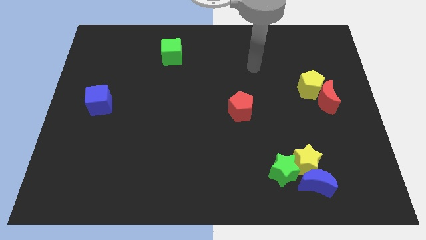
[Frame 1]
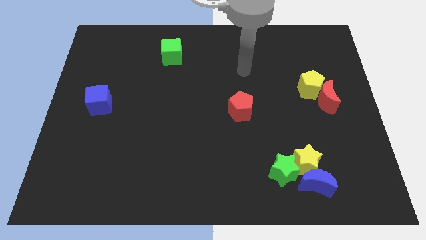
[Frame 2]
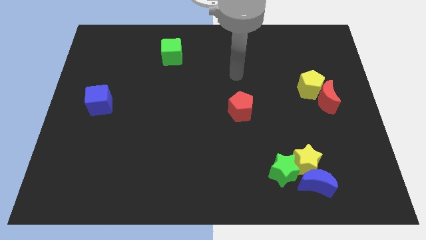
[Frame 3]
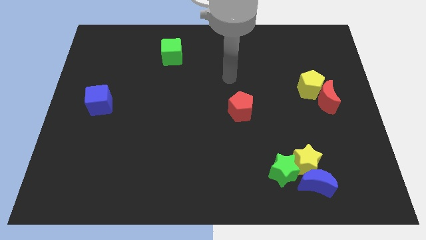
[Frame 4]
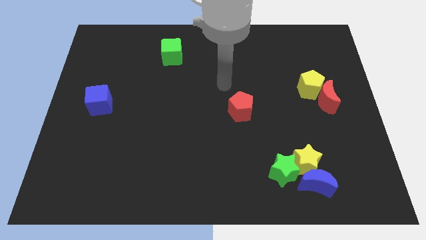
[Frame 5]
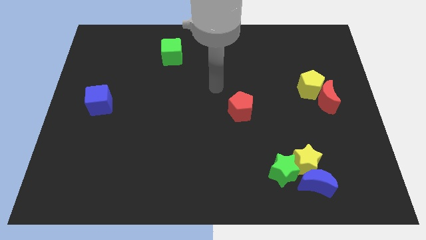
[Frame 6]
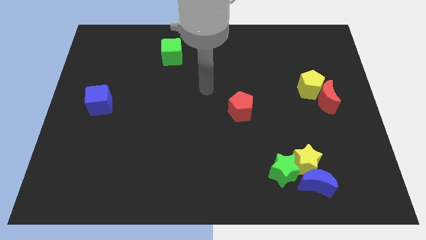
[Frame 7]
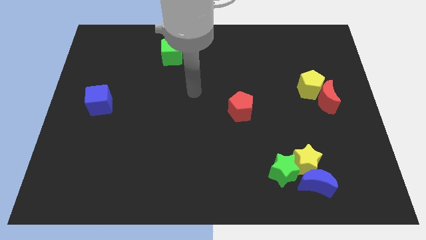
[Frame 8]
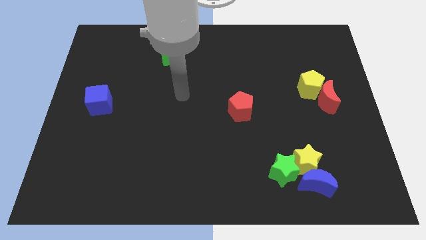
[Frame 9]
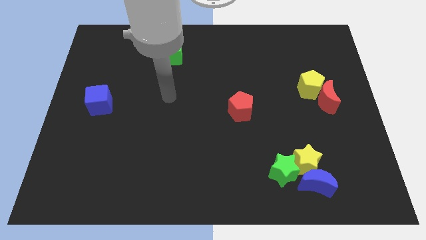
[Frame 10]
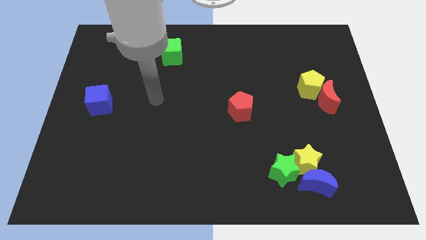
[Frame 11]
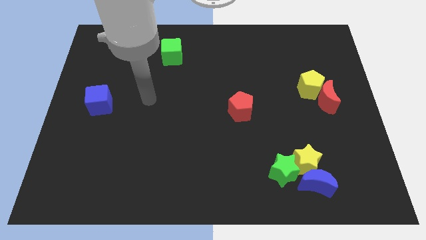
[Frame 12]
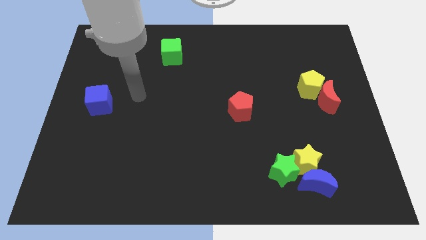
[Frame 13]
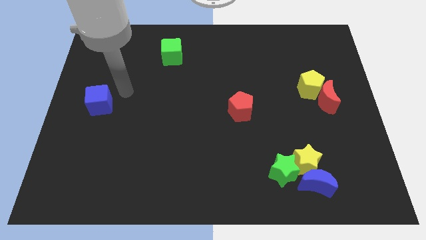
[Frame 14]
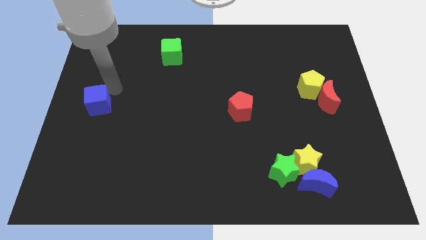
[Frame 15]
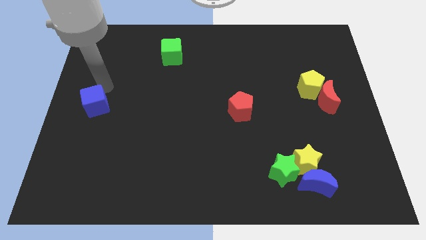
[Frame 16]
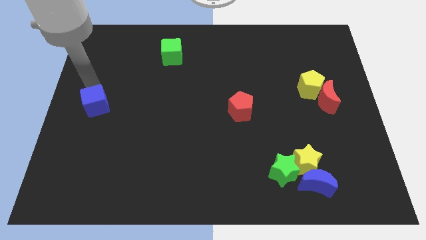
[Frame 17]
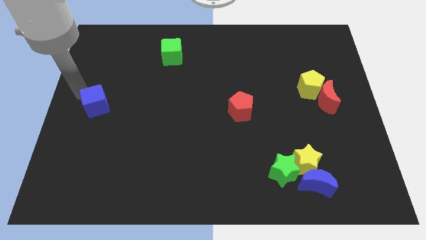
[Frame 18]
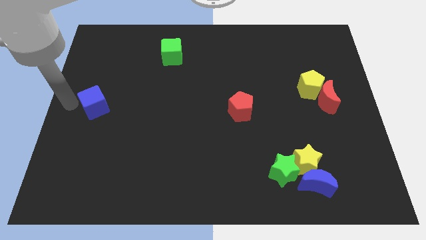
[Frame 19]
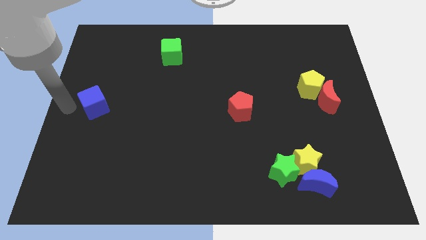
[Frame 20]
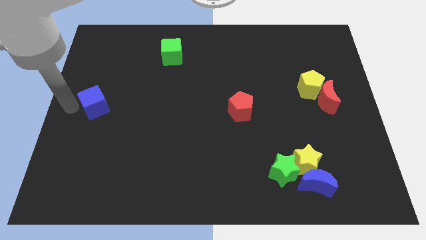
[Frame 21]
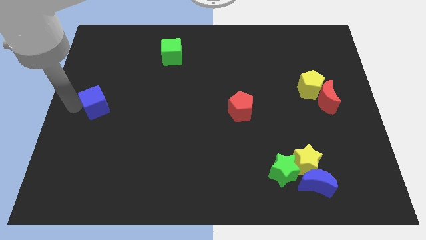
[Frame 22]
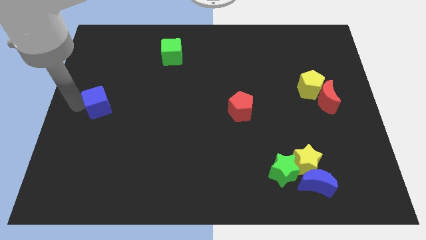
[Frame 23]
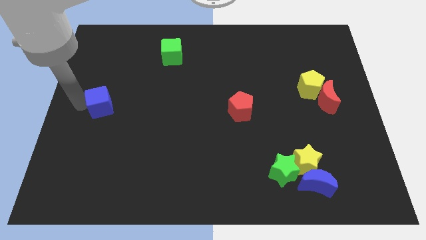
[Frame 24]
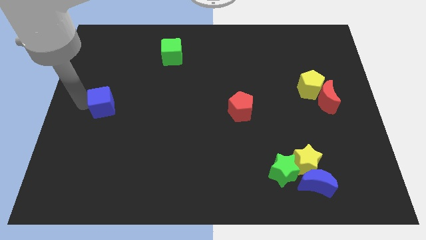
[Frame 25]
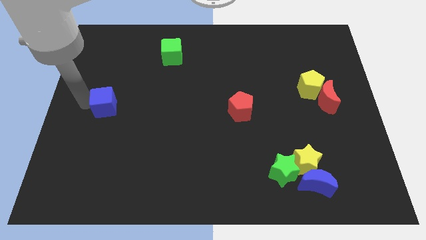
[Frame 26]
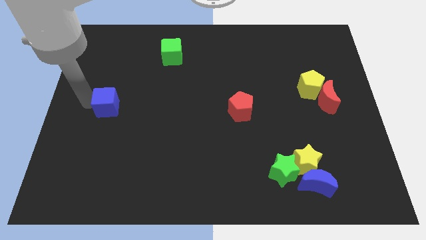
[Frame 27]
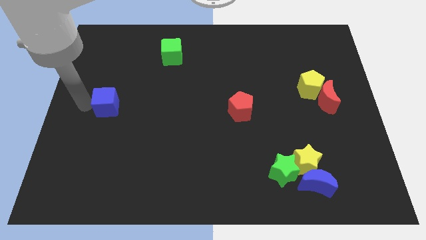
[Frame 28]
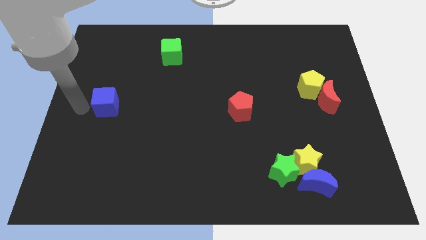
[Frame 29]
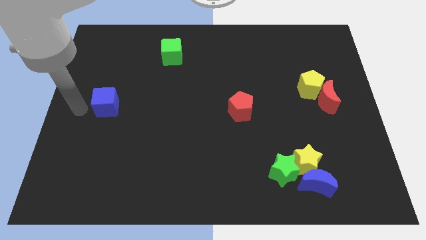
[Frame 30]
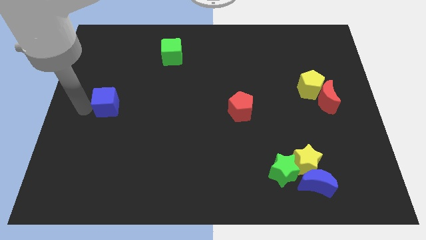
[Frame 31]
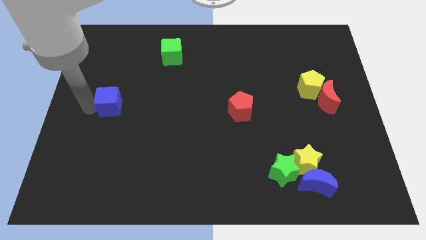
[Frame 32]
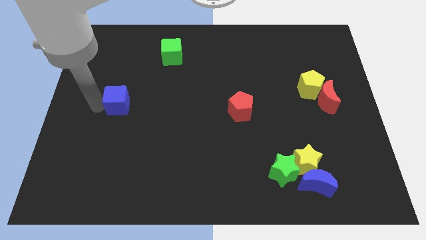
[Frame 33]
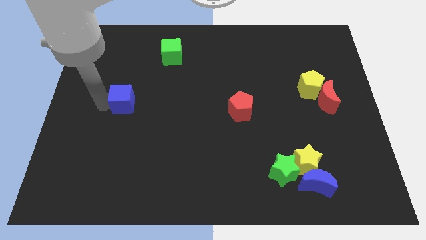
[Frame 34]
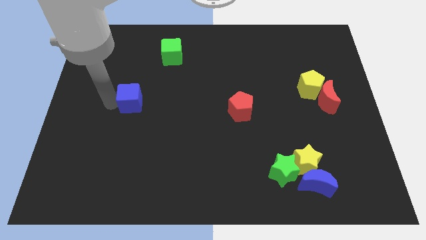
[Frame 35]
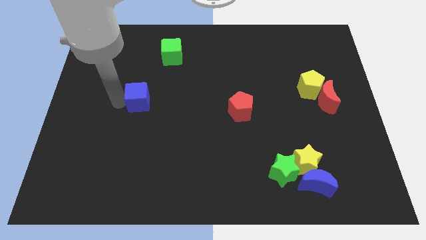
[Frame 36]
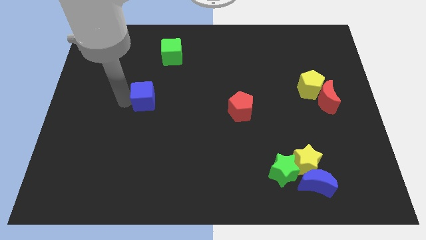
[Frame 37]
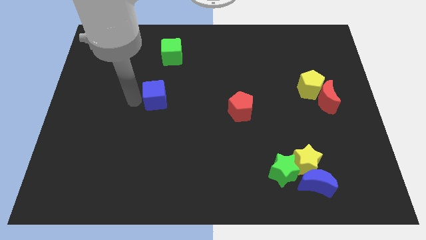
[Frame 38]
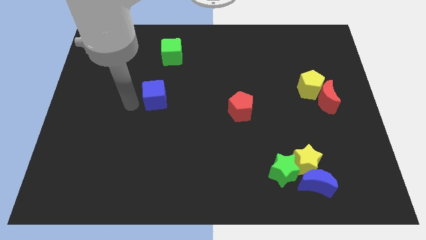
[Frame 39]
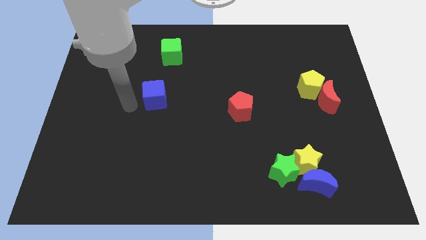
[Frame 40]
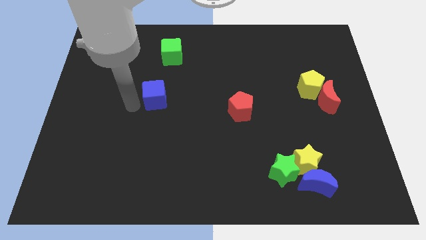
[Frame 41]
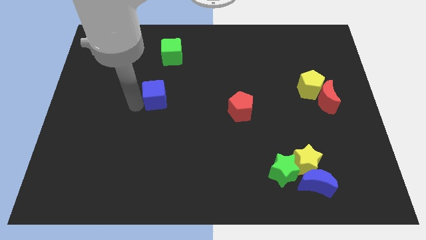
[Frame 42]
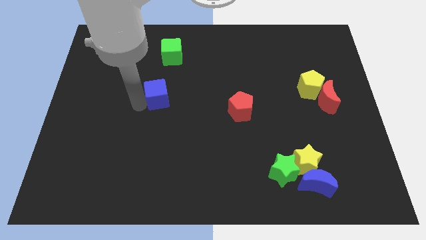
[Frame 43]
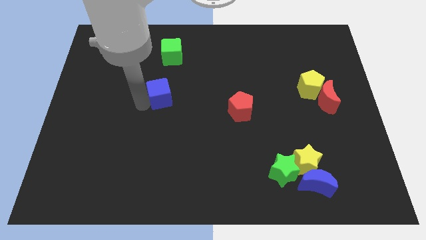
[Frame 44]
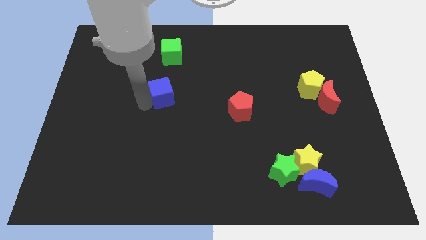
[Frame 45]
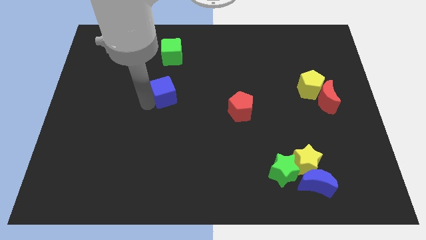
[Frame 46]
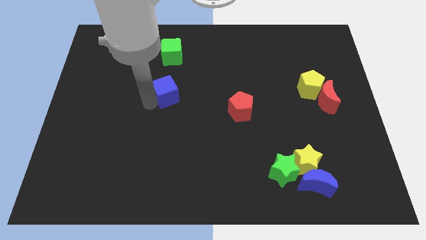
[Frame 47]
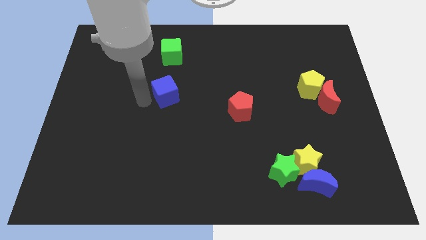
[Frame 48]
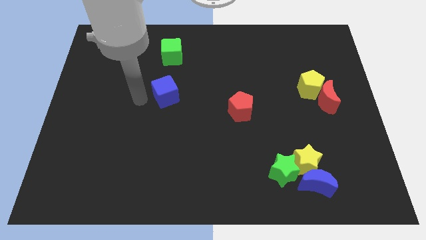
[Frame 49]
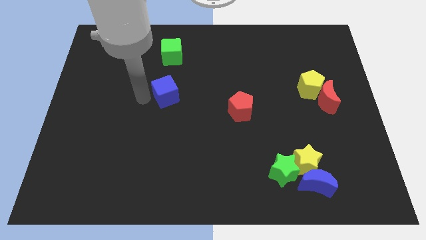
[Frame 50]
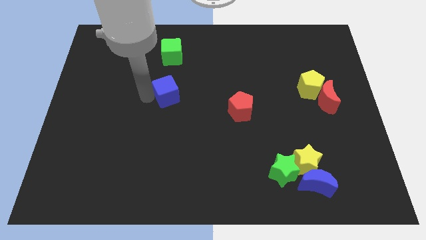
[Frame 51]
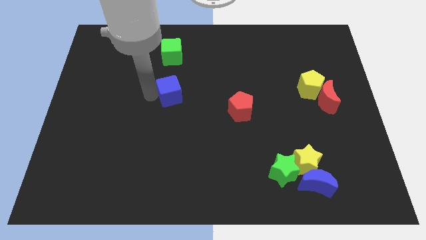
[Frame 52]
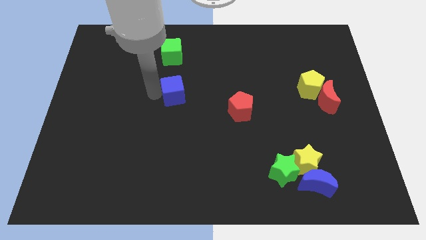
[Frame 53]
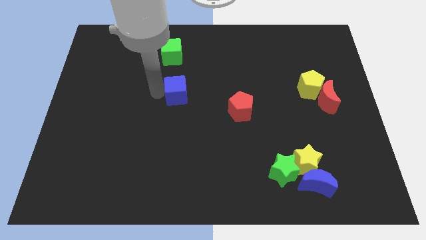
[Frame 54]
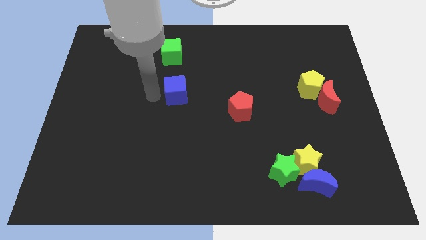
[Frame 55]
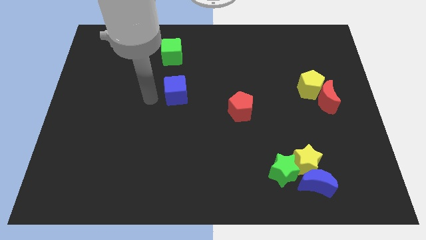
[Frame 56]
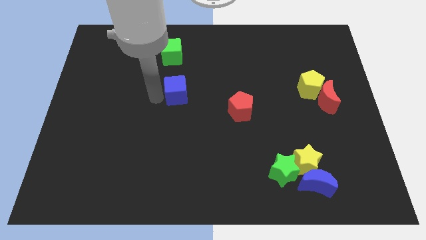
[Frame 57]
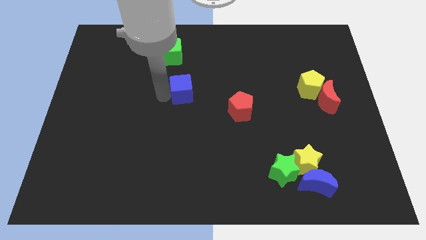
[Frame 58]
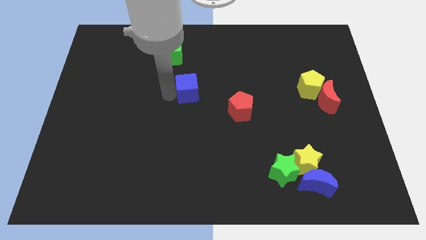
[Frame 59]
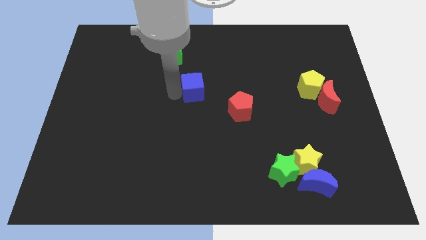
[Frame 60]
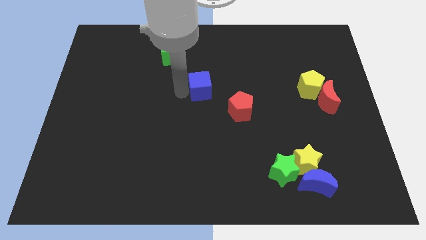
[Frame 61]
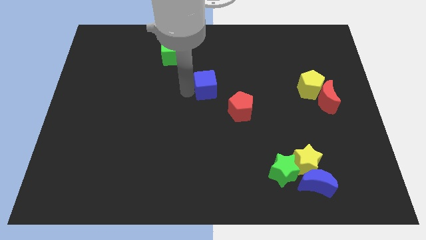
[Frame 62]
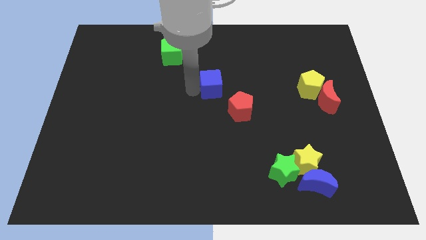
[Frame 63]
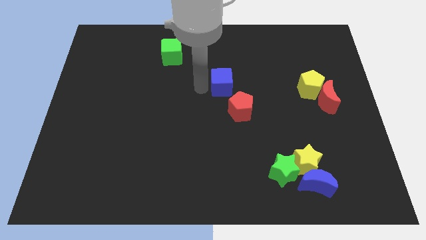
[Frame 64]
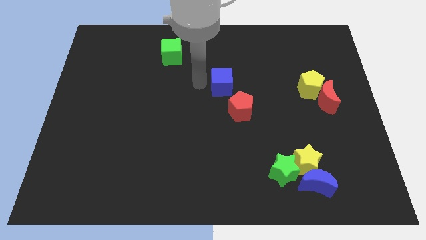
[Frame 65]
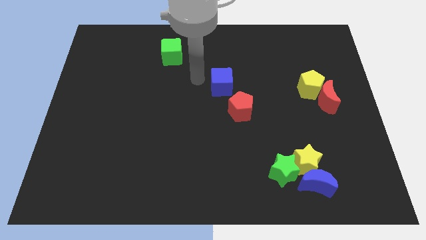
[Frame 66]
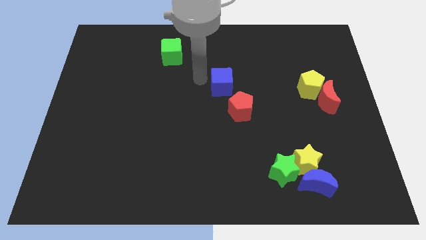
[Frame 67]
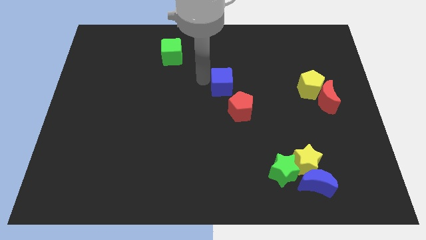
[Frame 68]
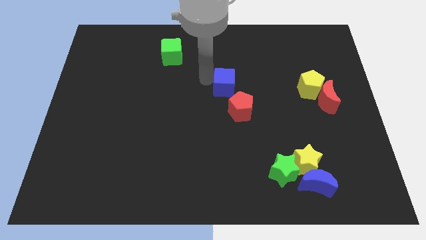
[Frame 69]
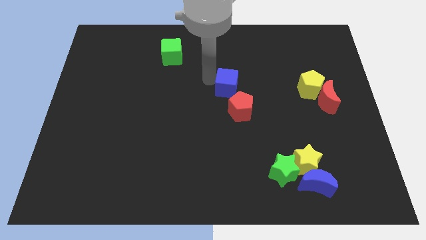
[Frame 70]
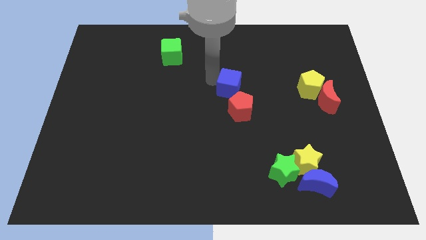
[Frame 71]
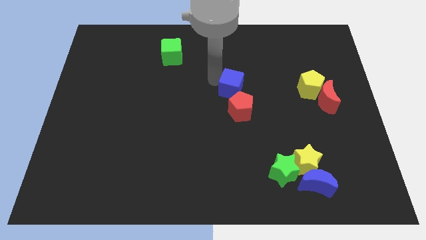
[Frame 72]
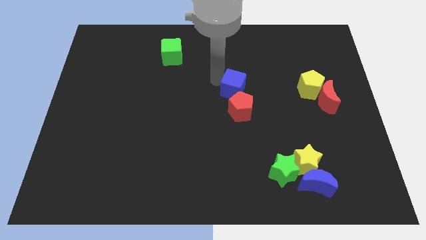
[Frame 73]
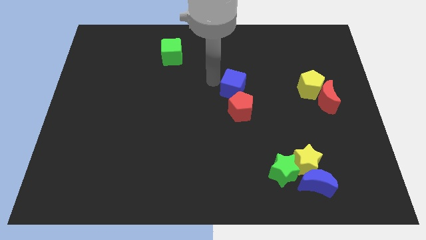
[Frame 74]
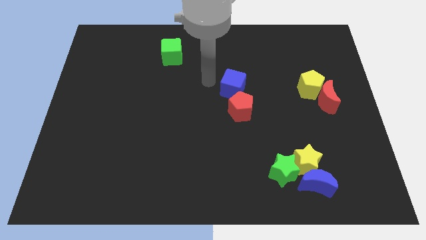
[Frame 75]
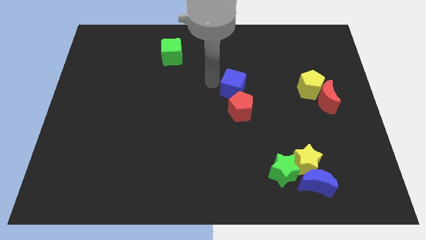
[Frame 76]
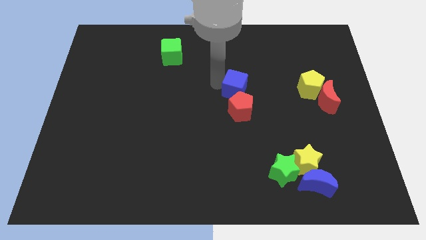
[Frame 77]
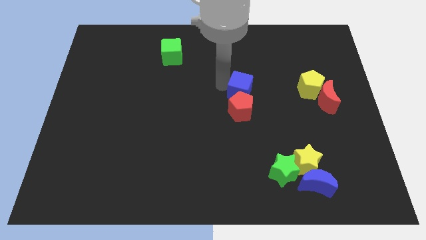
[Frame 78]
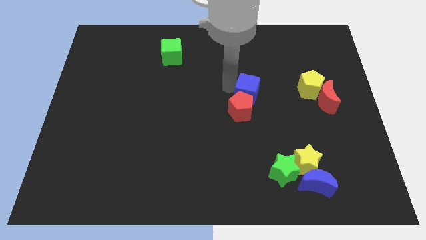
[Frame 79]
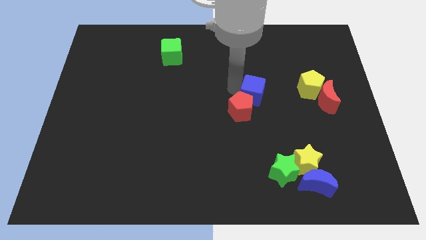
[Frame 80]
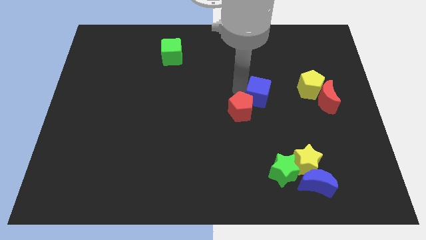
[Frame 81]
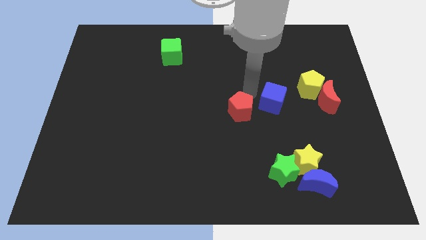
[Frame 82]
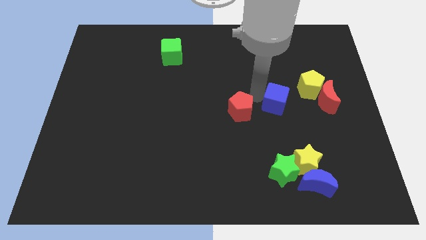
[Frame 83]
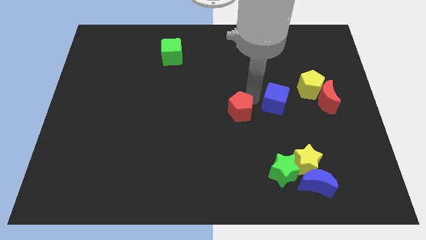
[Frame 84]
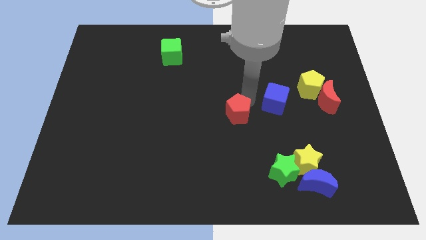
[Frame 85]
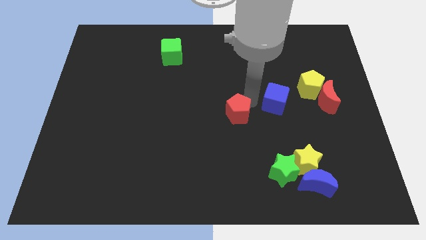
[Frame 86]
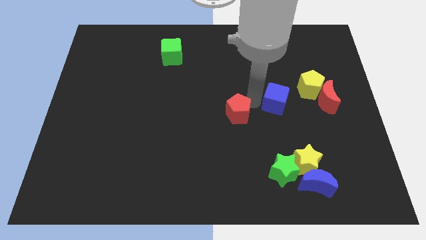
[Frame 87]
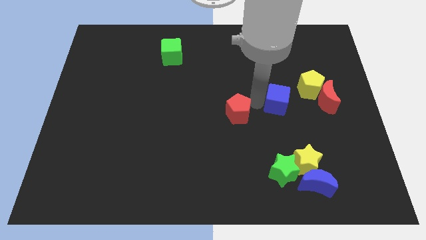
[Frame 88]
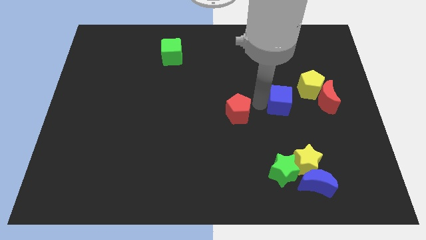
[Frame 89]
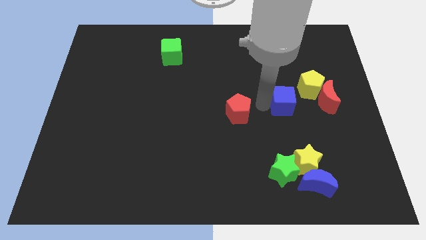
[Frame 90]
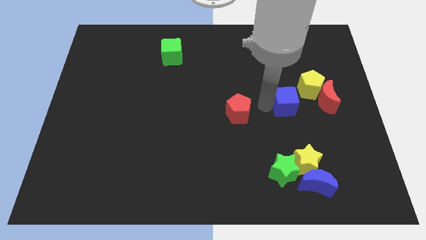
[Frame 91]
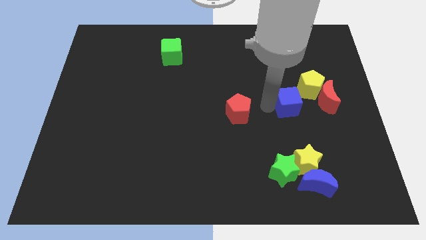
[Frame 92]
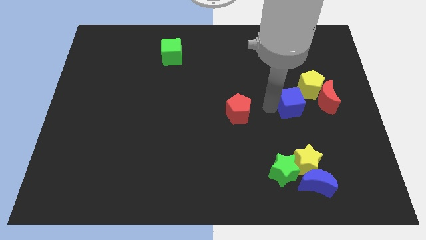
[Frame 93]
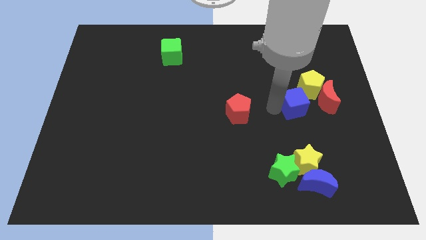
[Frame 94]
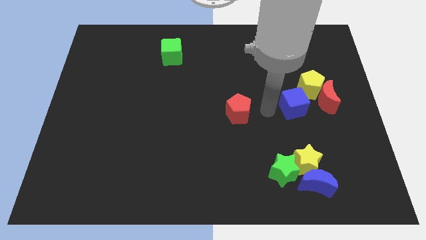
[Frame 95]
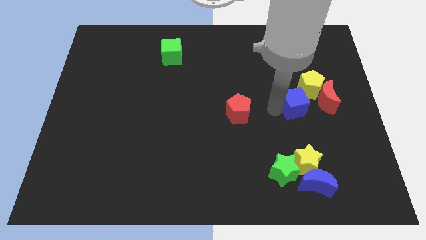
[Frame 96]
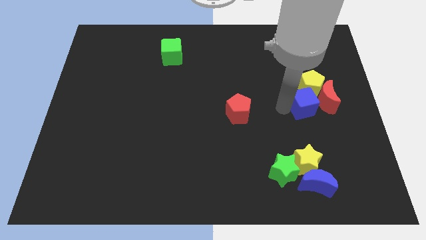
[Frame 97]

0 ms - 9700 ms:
move the blue cube next to the red moon
